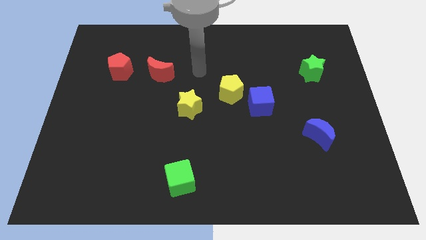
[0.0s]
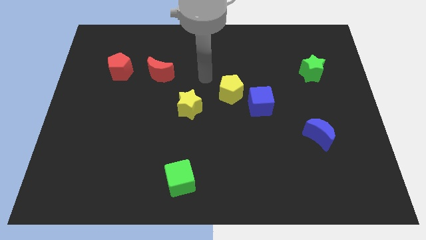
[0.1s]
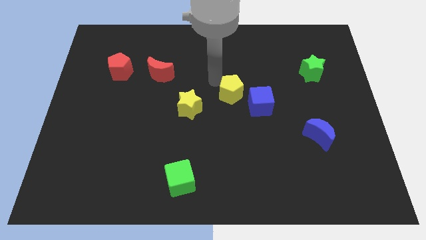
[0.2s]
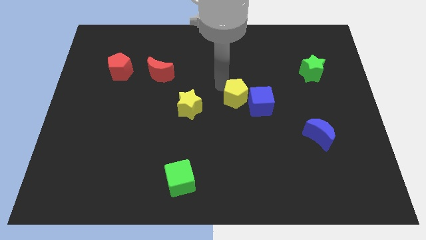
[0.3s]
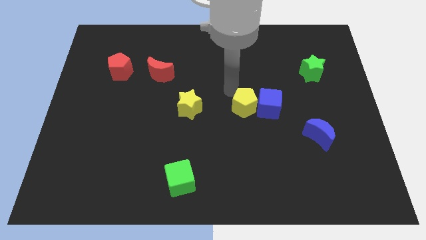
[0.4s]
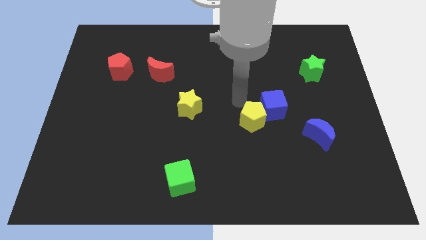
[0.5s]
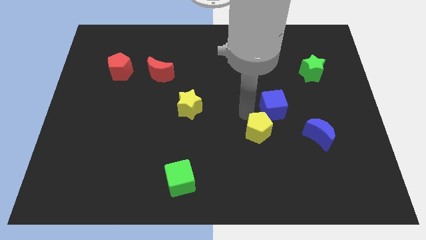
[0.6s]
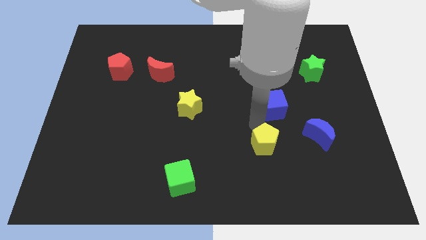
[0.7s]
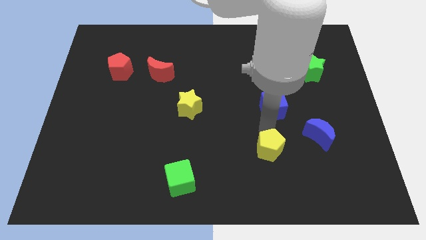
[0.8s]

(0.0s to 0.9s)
pull the blue cube apart from the yellow pentagon

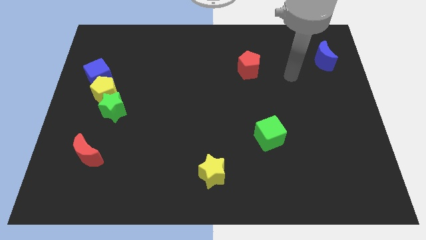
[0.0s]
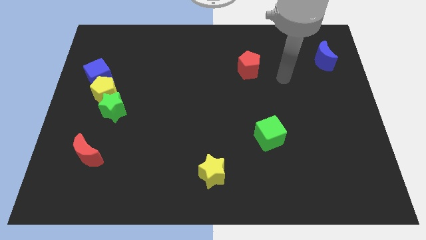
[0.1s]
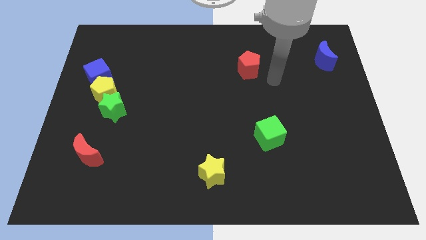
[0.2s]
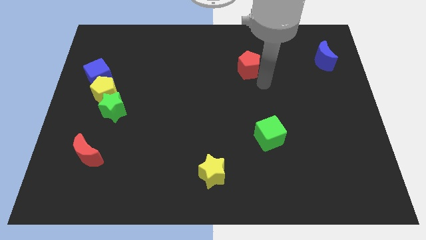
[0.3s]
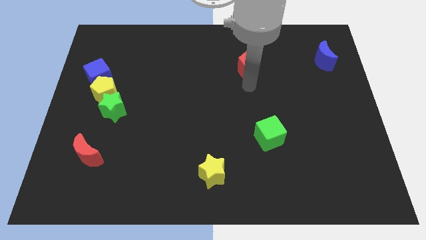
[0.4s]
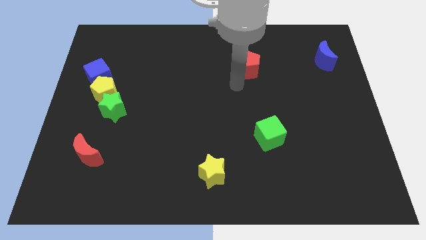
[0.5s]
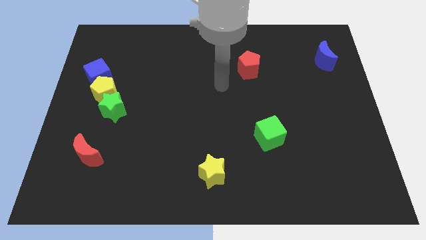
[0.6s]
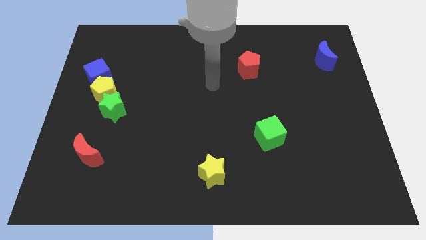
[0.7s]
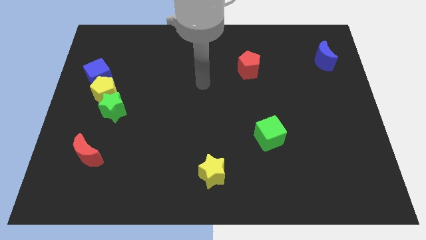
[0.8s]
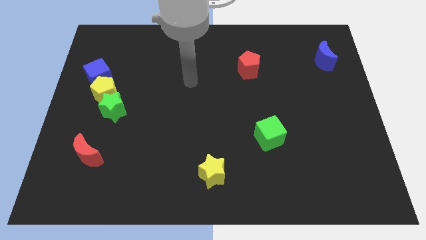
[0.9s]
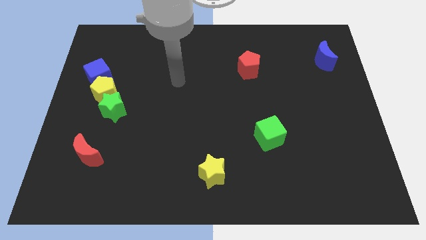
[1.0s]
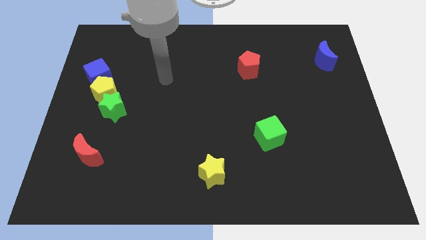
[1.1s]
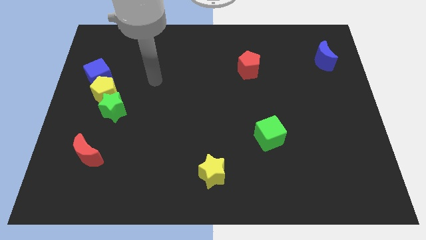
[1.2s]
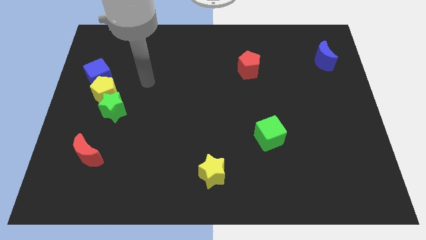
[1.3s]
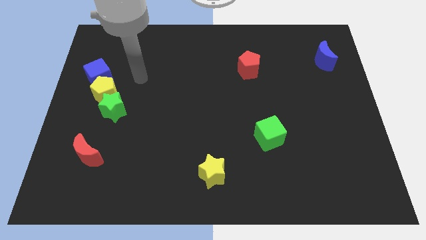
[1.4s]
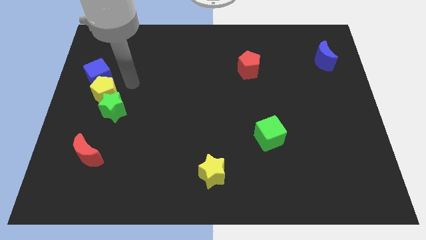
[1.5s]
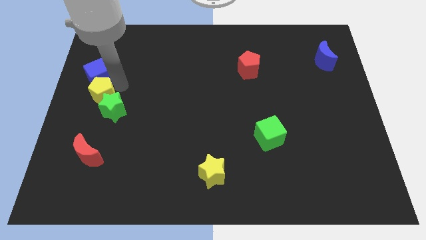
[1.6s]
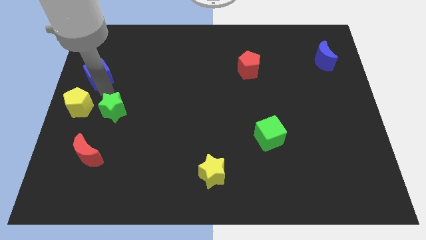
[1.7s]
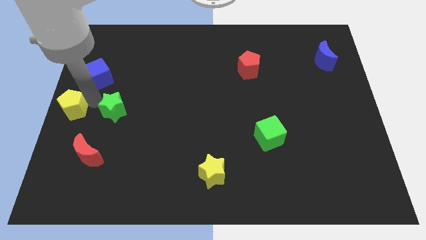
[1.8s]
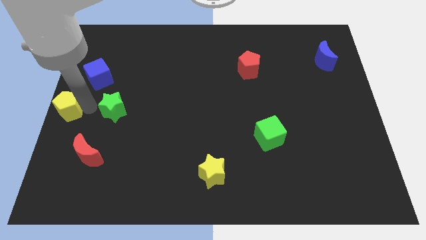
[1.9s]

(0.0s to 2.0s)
separate the green star from the yellow pentagon

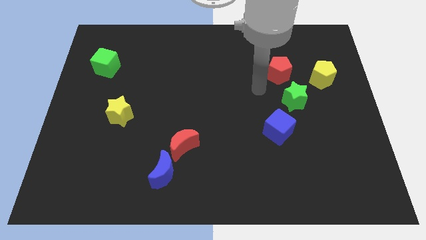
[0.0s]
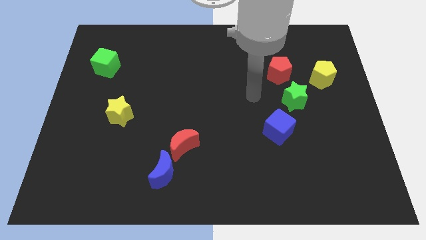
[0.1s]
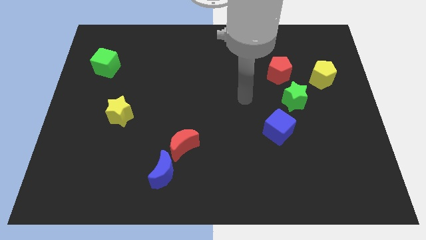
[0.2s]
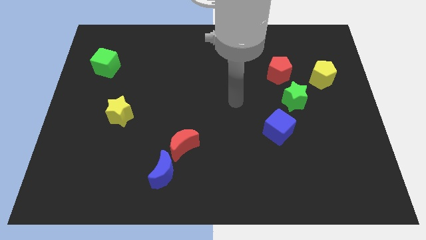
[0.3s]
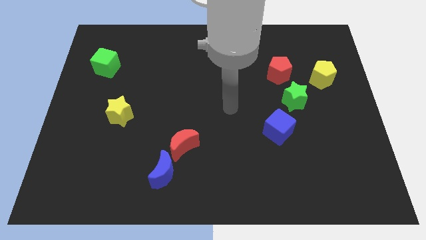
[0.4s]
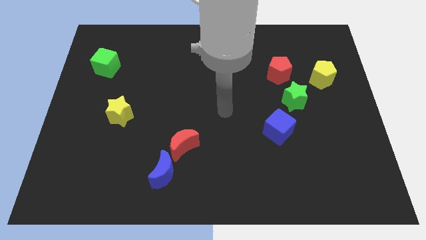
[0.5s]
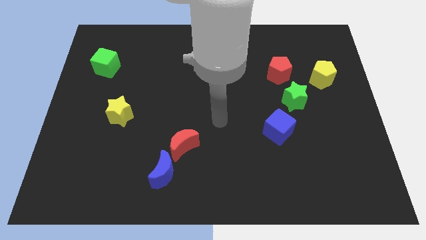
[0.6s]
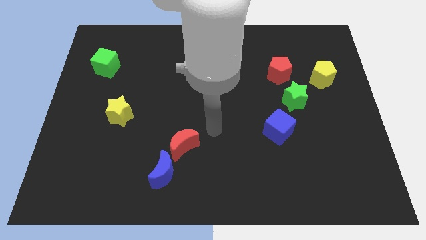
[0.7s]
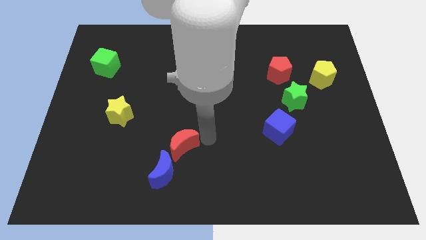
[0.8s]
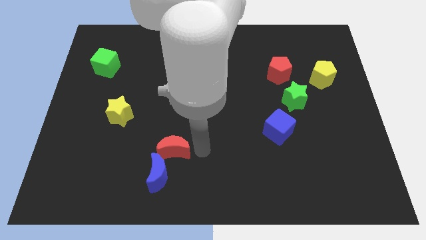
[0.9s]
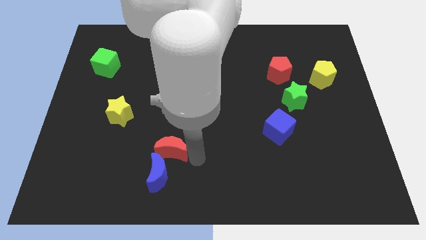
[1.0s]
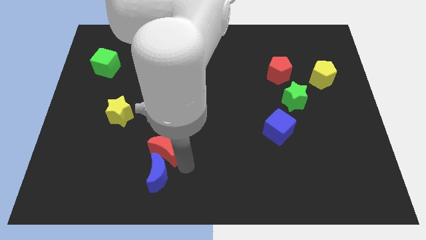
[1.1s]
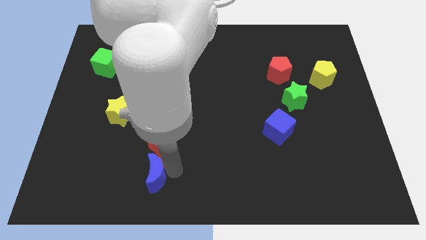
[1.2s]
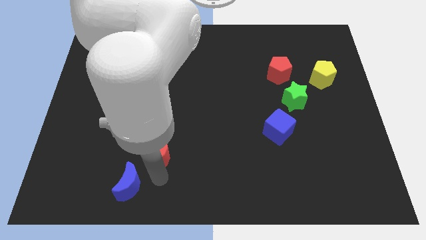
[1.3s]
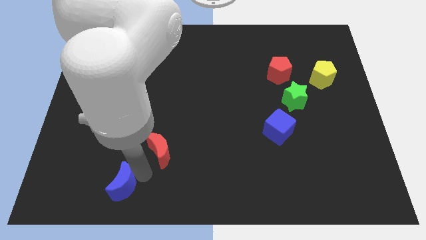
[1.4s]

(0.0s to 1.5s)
pull the red moon apart from the blue moon

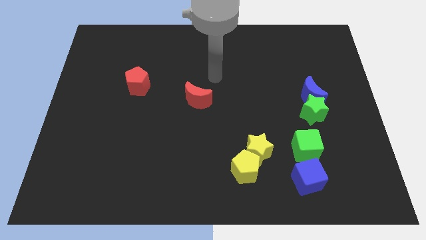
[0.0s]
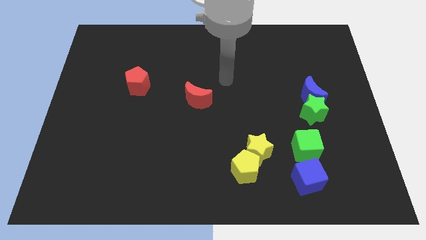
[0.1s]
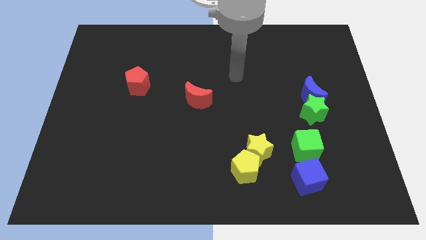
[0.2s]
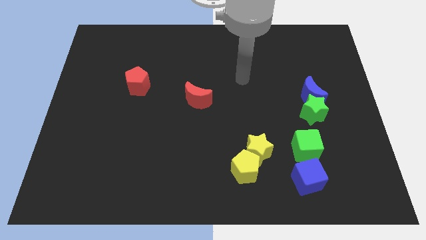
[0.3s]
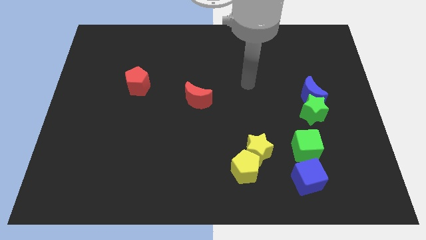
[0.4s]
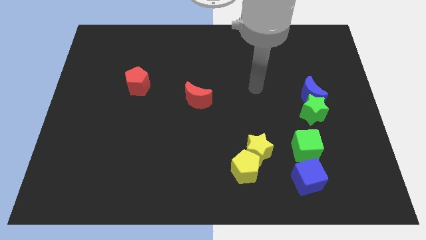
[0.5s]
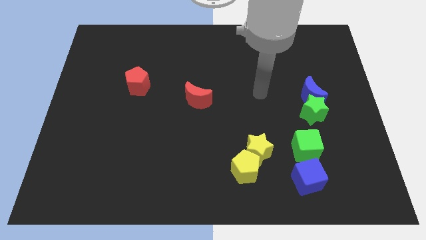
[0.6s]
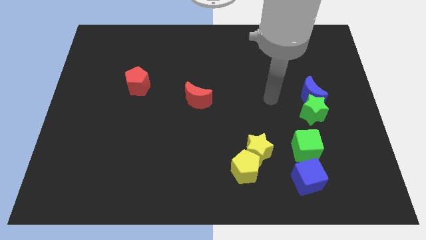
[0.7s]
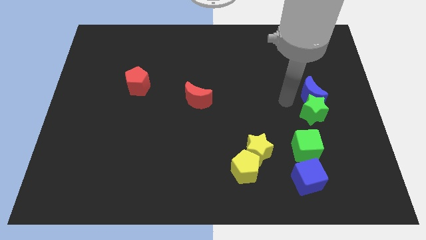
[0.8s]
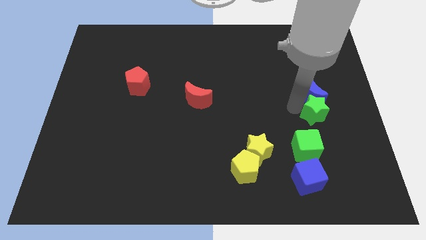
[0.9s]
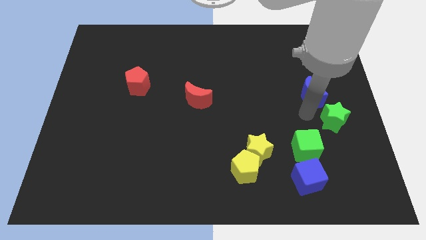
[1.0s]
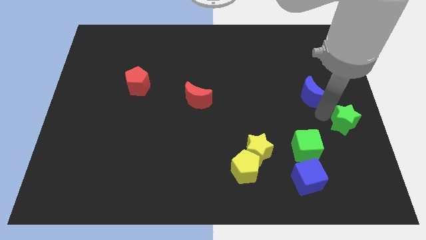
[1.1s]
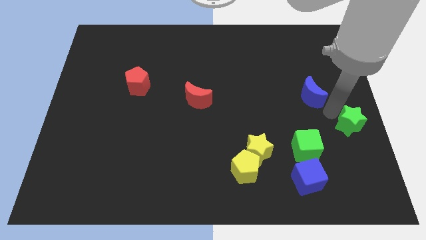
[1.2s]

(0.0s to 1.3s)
pull the blue moon apart from the green star

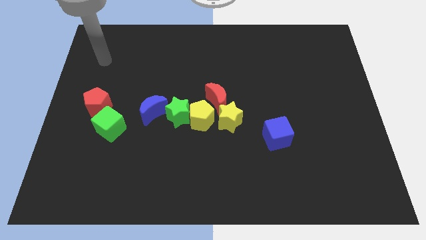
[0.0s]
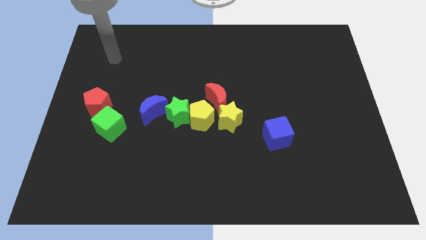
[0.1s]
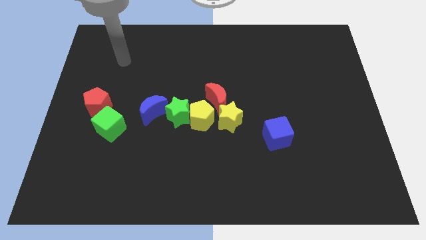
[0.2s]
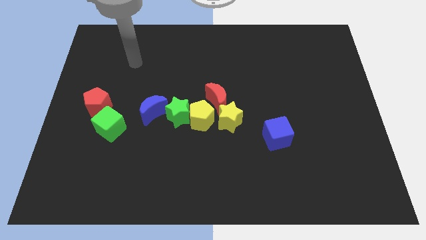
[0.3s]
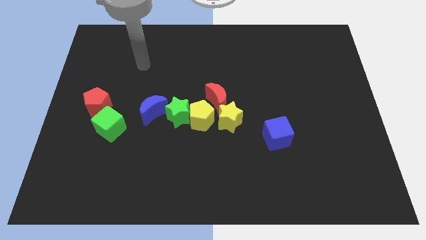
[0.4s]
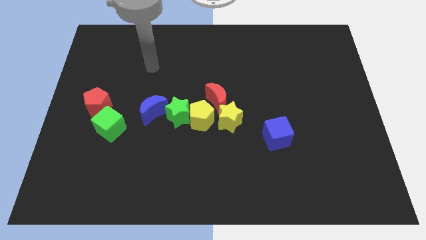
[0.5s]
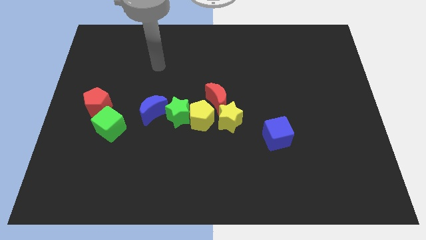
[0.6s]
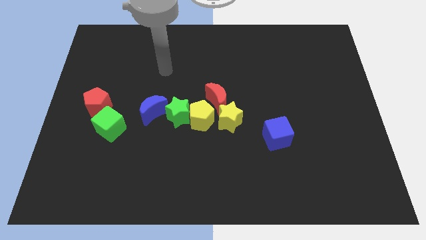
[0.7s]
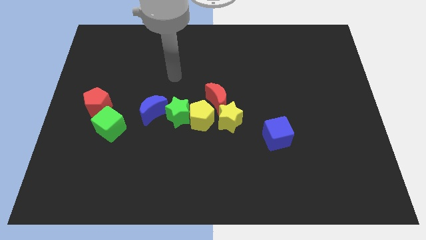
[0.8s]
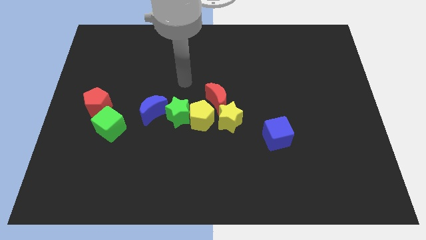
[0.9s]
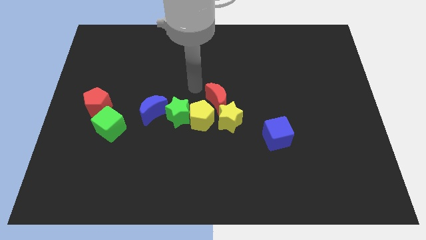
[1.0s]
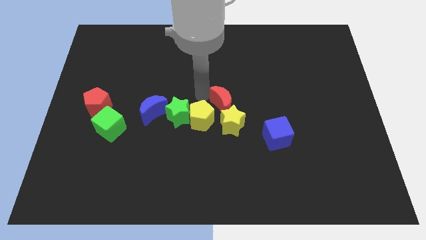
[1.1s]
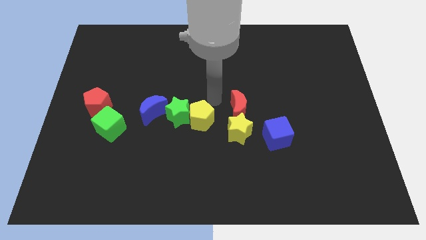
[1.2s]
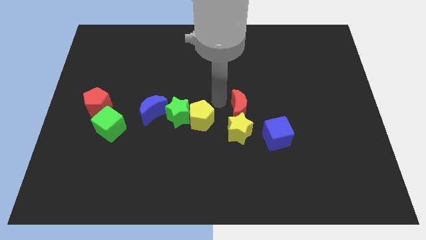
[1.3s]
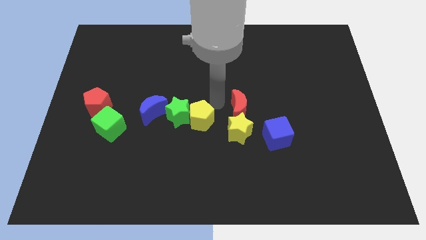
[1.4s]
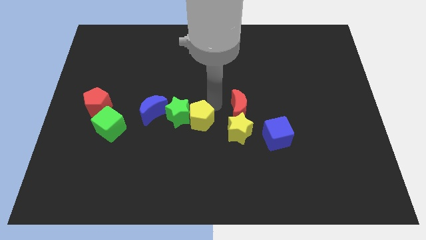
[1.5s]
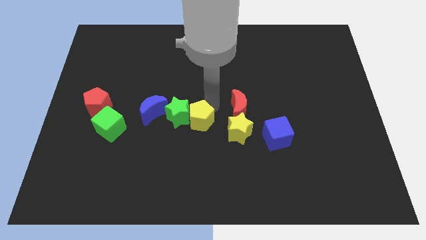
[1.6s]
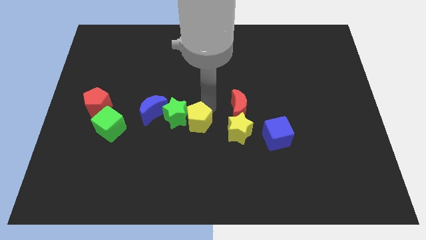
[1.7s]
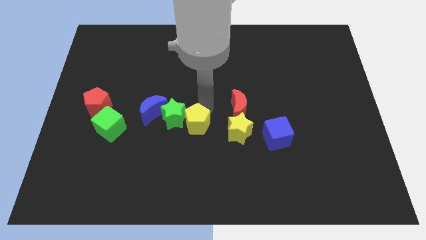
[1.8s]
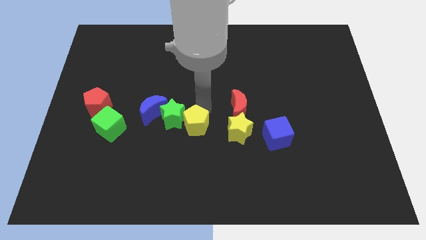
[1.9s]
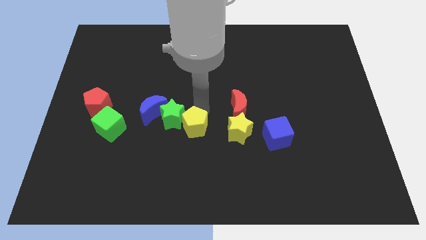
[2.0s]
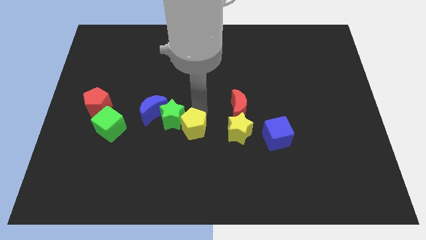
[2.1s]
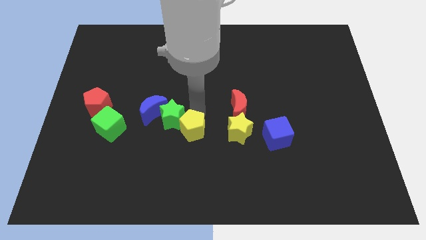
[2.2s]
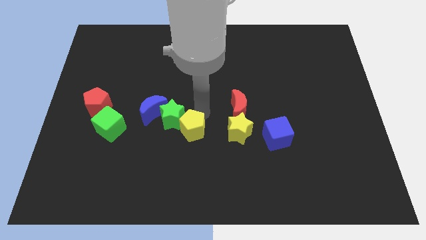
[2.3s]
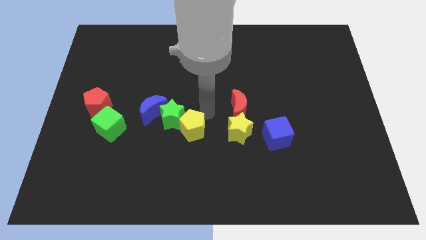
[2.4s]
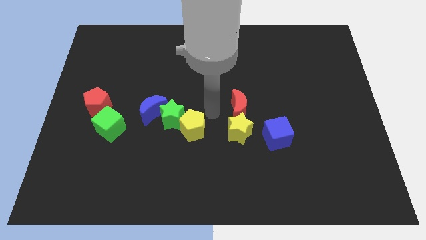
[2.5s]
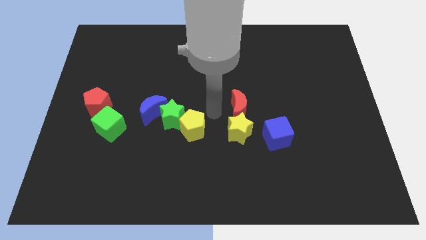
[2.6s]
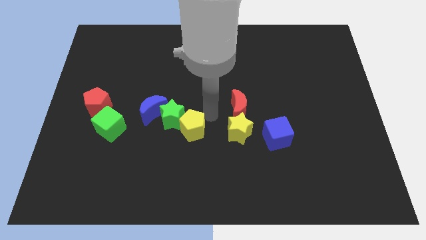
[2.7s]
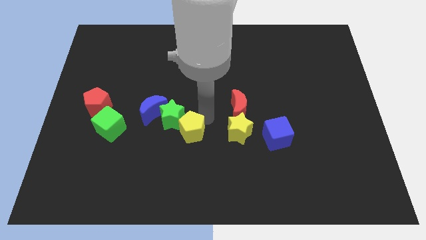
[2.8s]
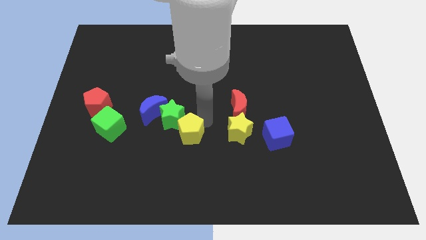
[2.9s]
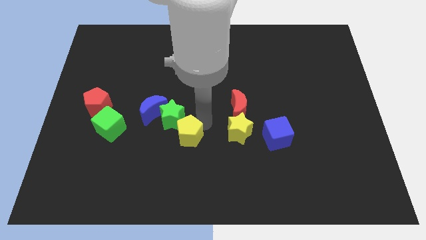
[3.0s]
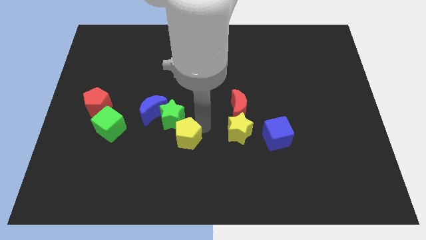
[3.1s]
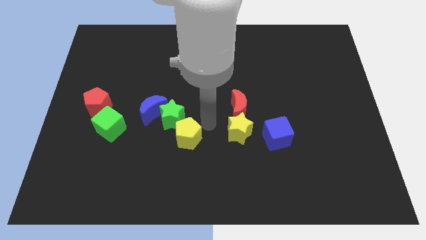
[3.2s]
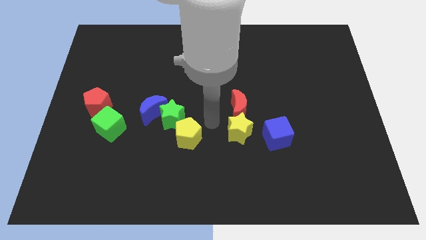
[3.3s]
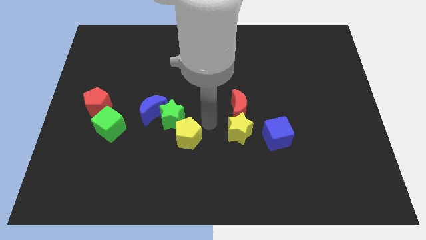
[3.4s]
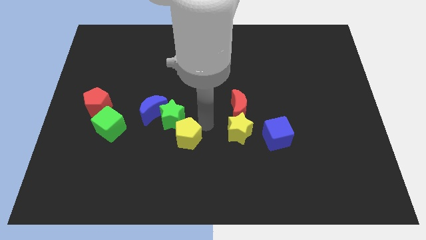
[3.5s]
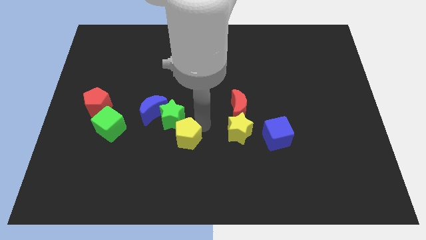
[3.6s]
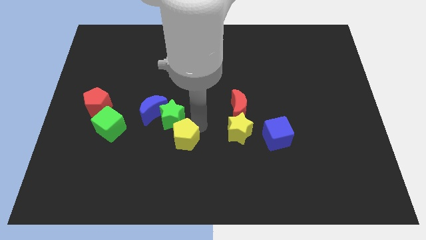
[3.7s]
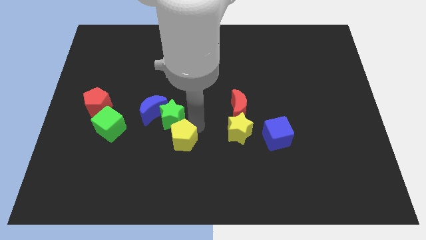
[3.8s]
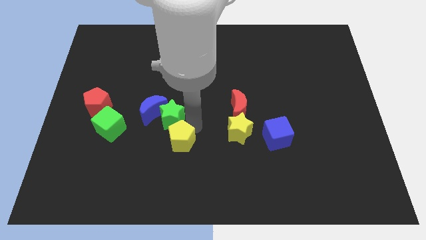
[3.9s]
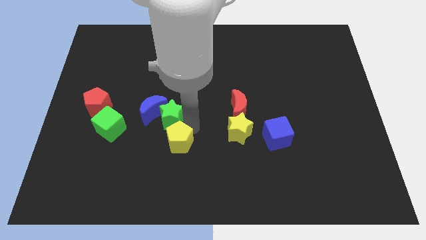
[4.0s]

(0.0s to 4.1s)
move the yellow pentagon away from the group
